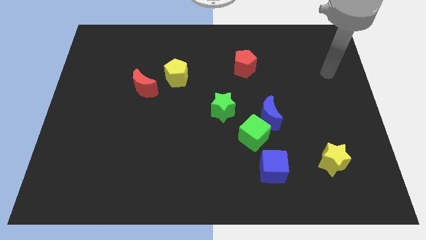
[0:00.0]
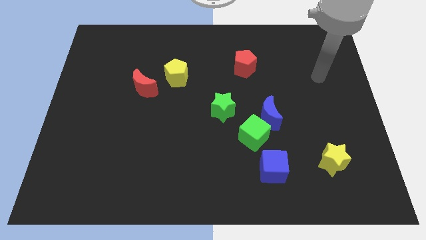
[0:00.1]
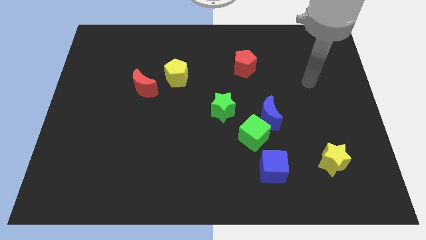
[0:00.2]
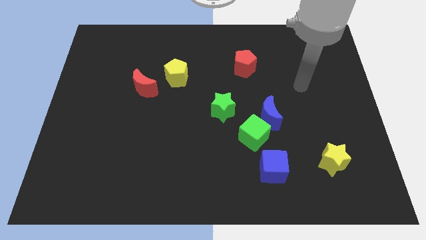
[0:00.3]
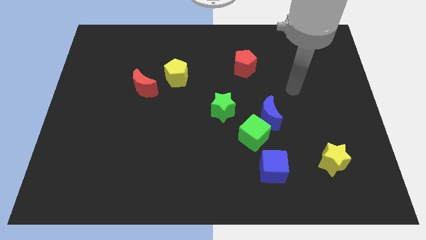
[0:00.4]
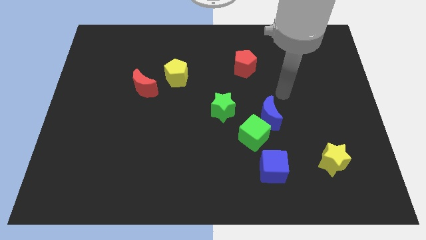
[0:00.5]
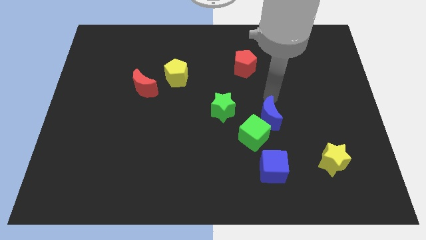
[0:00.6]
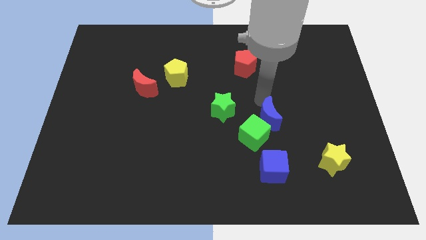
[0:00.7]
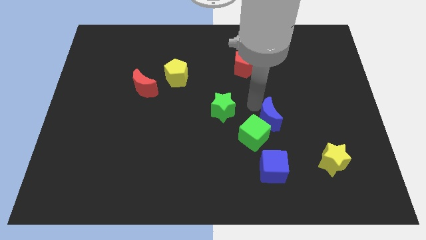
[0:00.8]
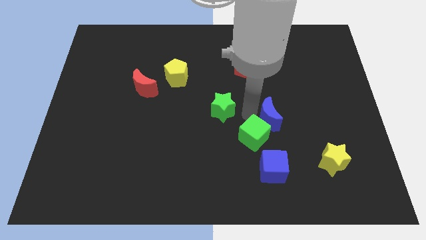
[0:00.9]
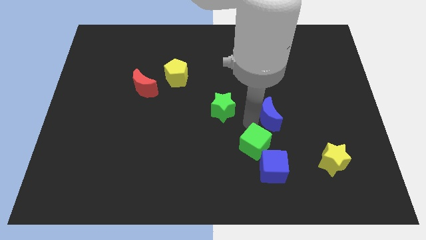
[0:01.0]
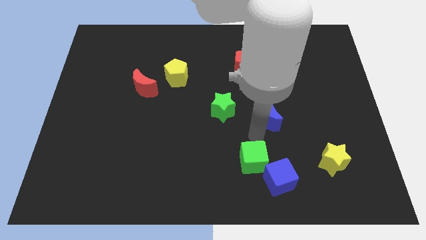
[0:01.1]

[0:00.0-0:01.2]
move the blue moon away from the green cube

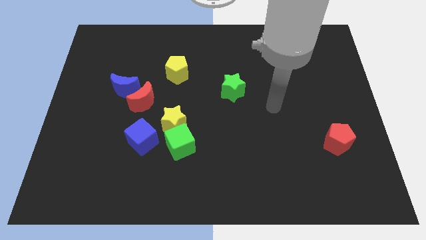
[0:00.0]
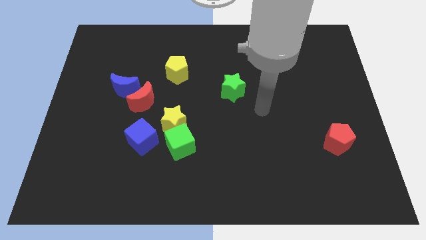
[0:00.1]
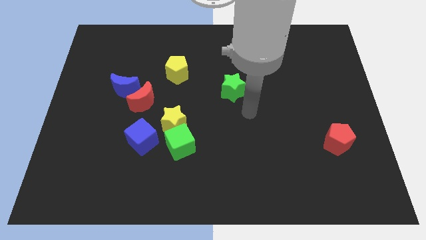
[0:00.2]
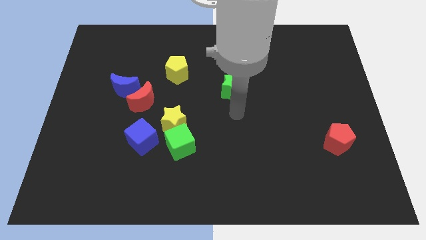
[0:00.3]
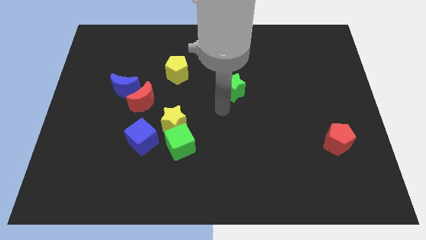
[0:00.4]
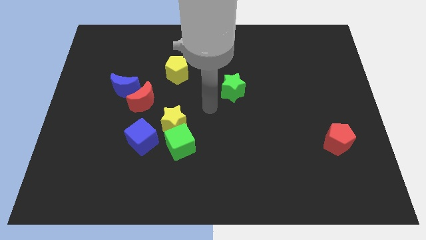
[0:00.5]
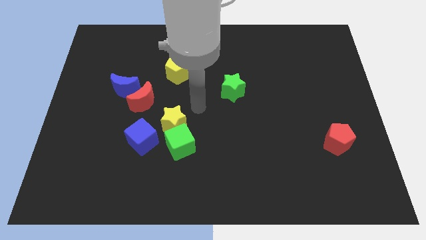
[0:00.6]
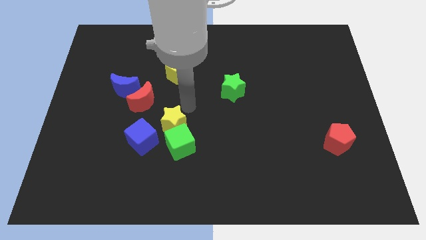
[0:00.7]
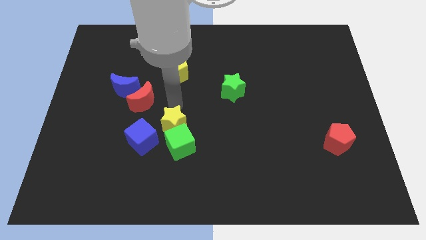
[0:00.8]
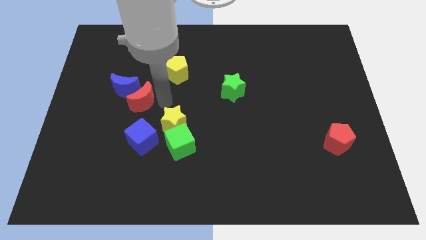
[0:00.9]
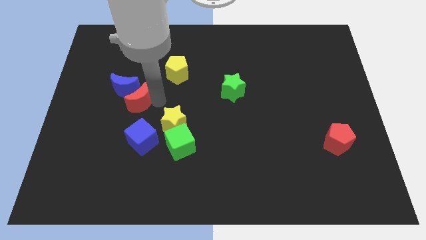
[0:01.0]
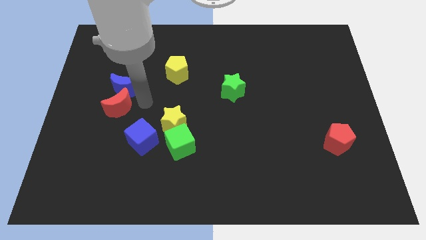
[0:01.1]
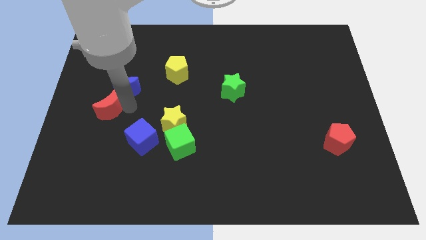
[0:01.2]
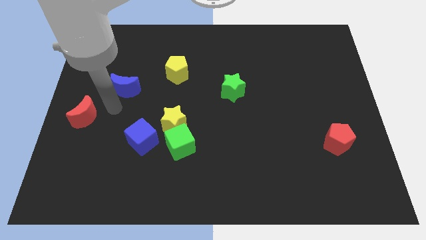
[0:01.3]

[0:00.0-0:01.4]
separate the blue moon from the red moon

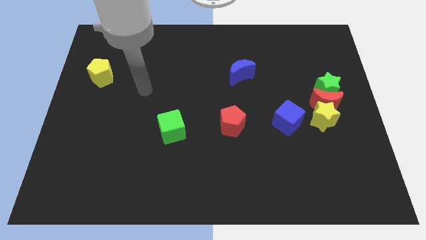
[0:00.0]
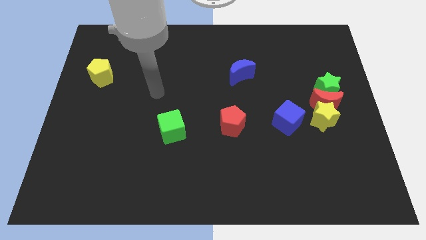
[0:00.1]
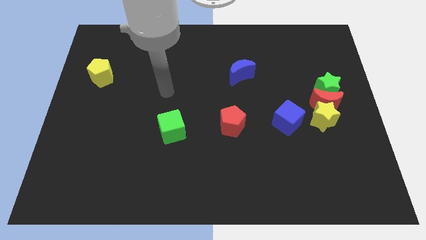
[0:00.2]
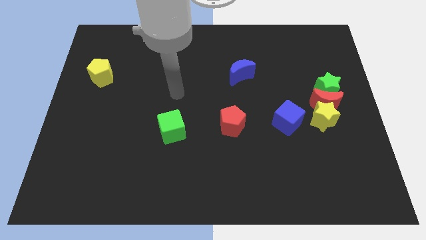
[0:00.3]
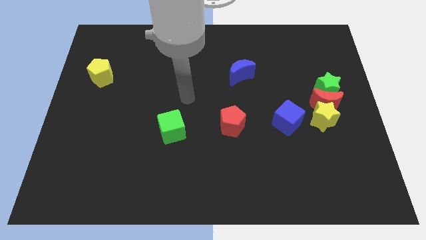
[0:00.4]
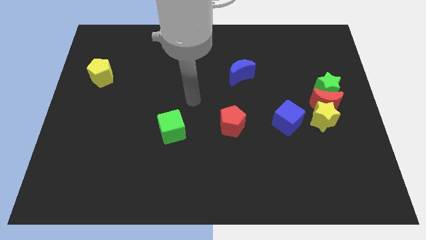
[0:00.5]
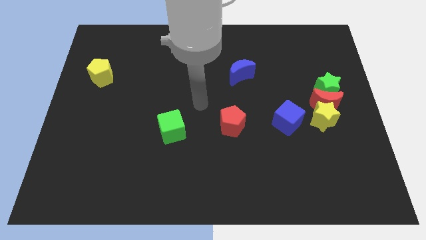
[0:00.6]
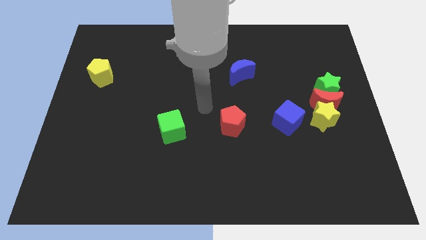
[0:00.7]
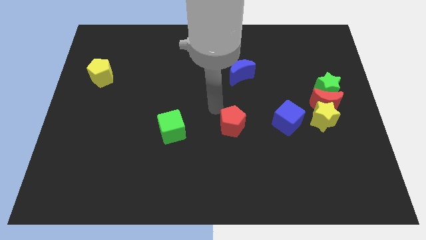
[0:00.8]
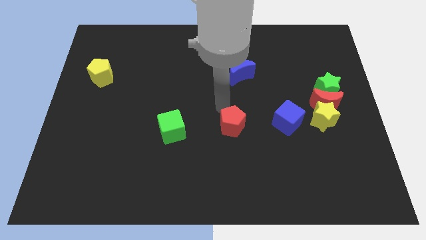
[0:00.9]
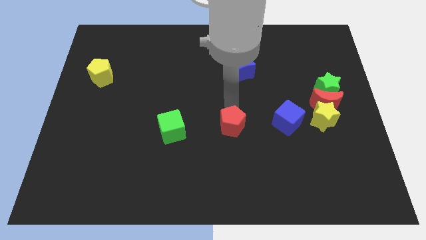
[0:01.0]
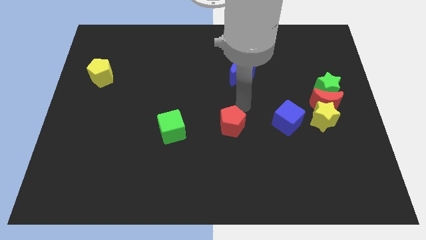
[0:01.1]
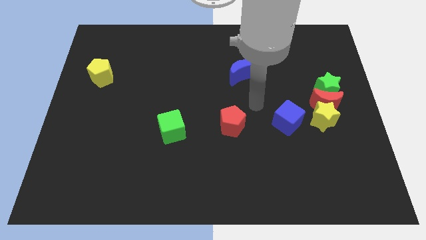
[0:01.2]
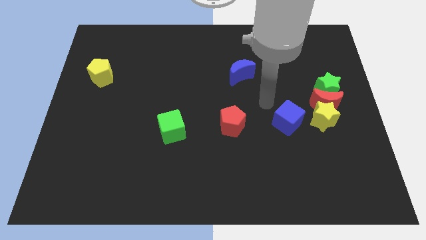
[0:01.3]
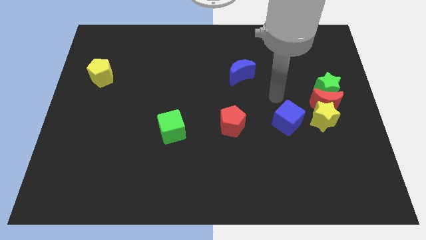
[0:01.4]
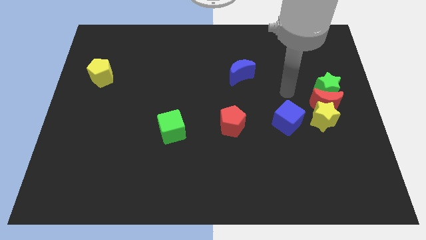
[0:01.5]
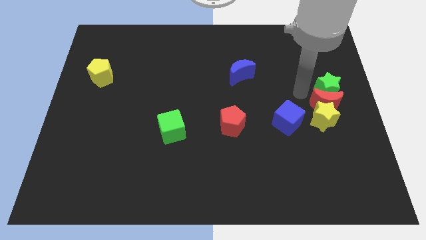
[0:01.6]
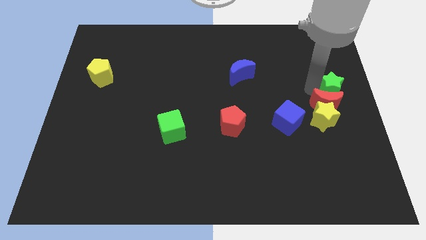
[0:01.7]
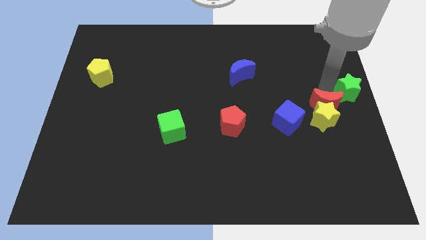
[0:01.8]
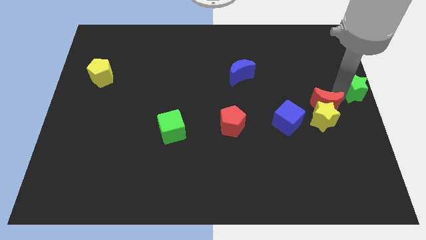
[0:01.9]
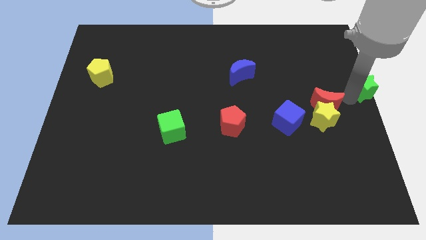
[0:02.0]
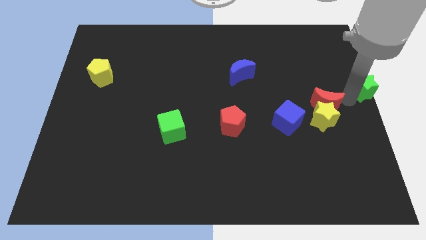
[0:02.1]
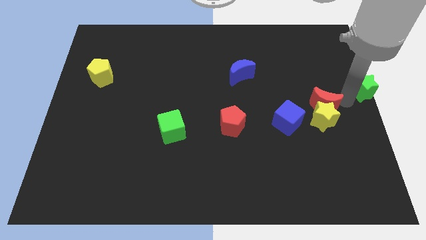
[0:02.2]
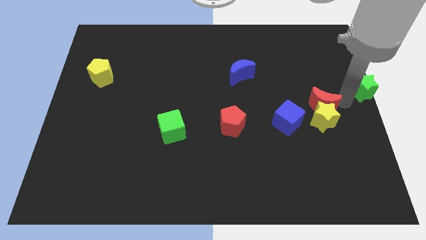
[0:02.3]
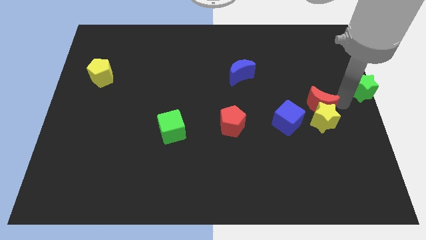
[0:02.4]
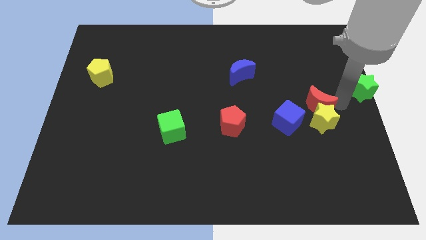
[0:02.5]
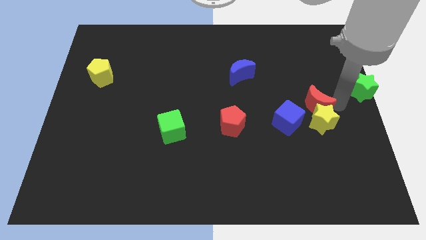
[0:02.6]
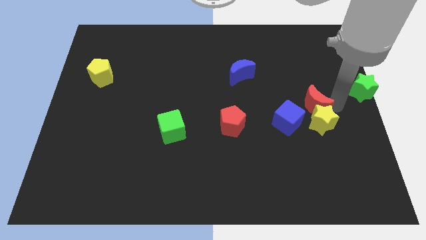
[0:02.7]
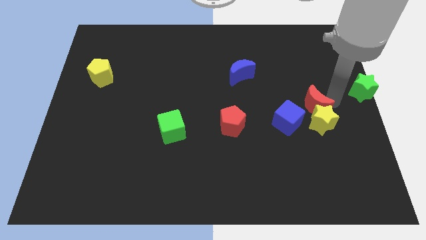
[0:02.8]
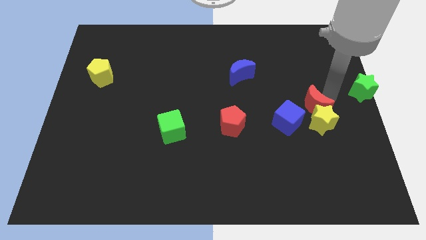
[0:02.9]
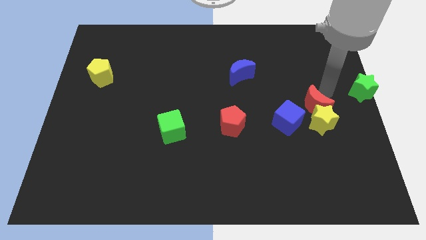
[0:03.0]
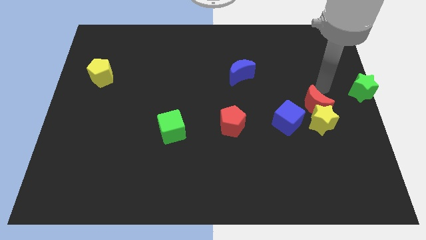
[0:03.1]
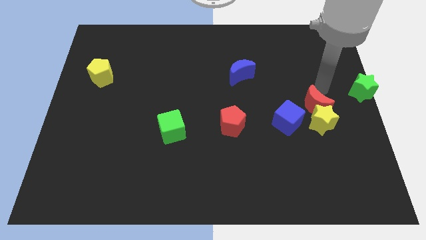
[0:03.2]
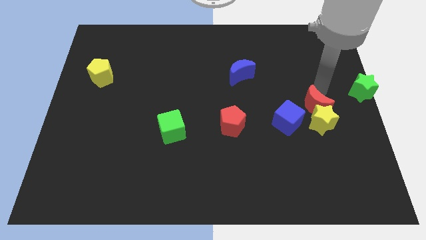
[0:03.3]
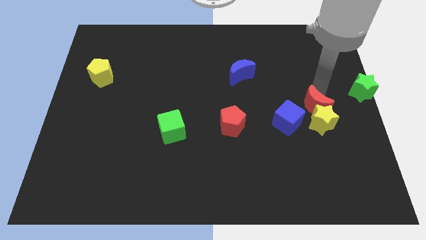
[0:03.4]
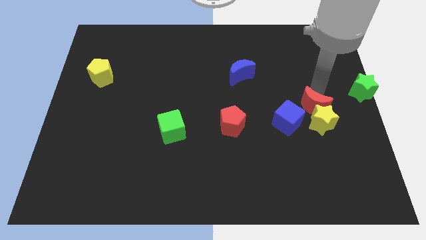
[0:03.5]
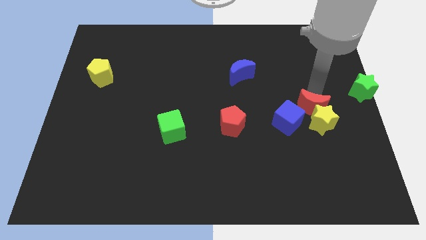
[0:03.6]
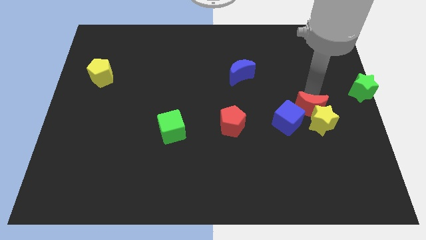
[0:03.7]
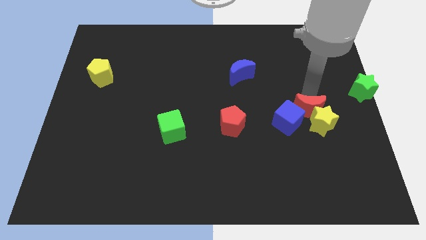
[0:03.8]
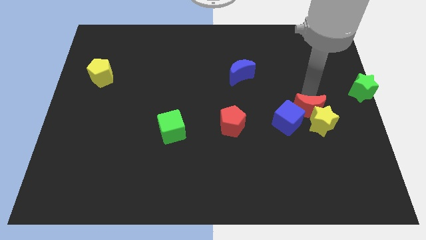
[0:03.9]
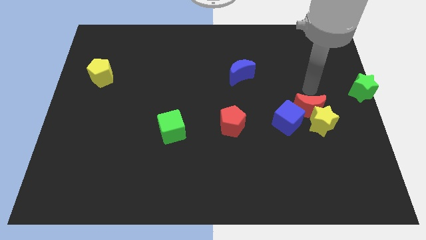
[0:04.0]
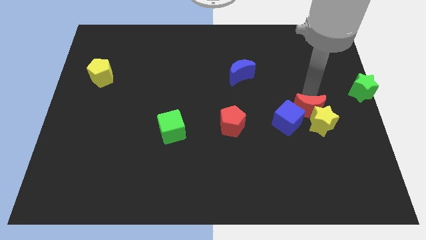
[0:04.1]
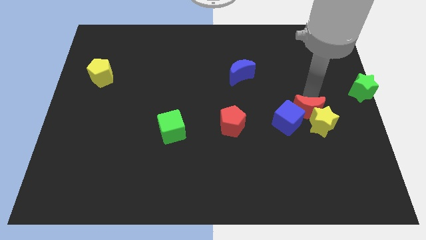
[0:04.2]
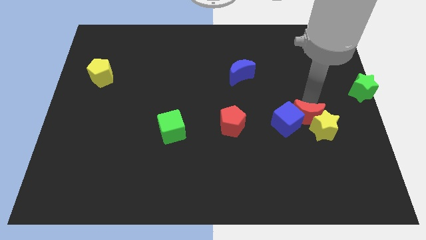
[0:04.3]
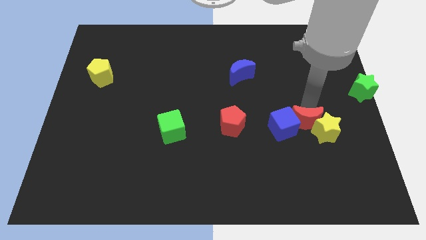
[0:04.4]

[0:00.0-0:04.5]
pull the red moon apart from the yellow star and green star

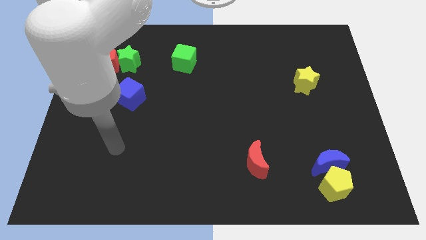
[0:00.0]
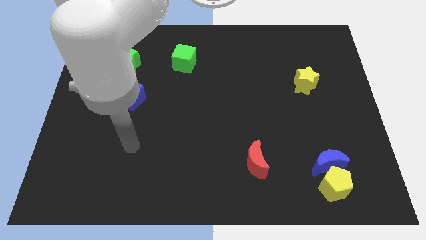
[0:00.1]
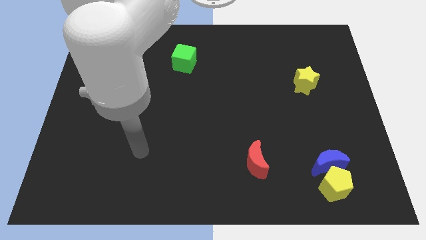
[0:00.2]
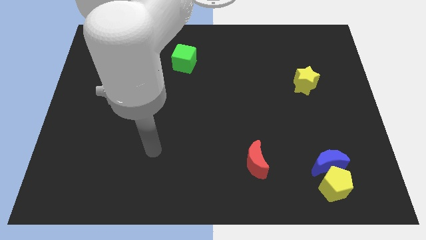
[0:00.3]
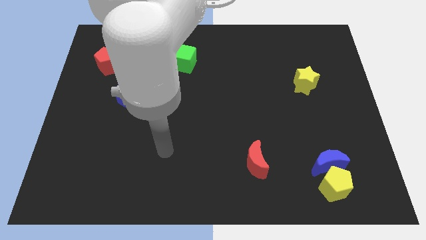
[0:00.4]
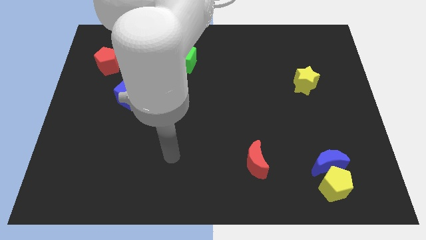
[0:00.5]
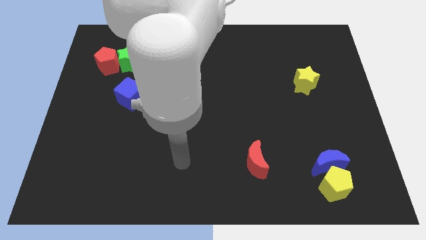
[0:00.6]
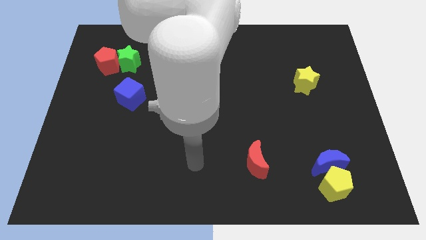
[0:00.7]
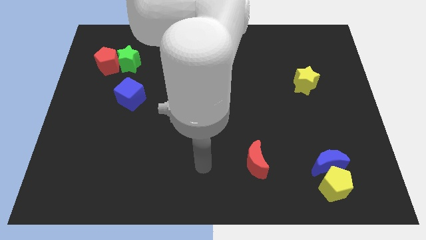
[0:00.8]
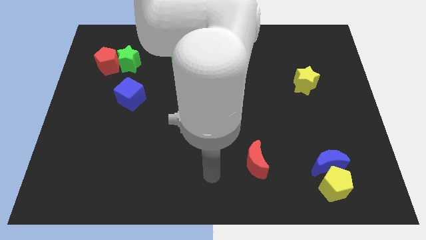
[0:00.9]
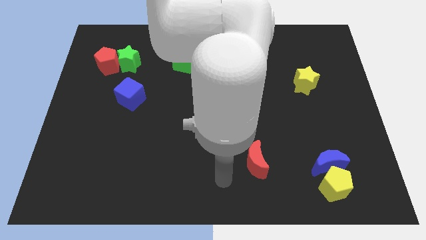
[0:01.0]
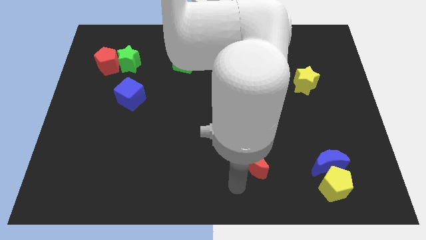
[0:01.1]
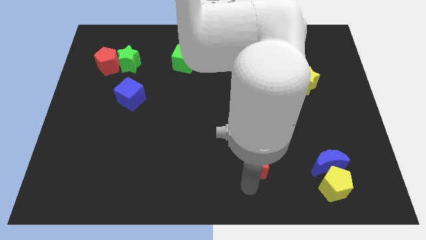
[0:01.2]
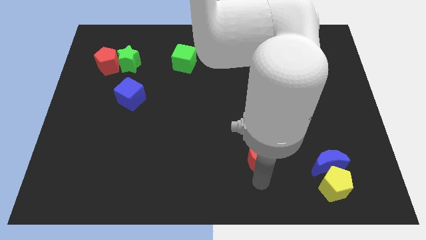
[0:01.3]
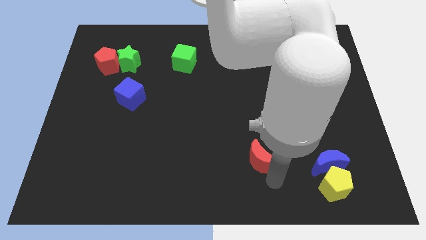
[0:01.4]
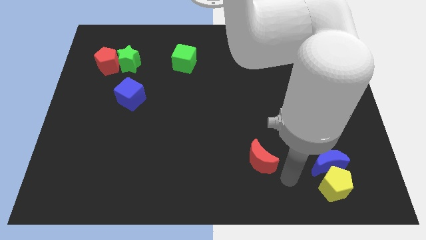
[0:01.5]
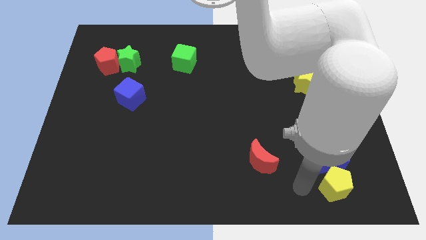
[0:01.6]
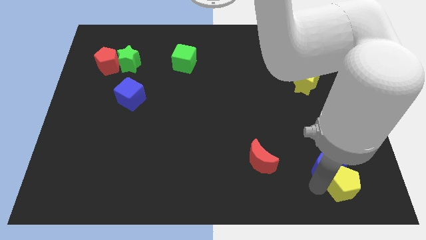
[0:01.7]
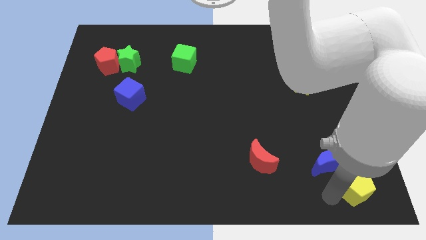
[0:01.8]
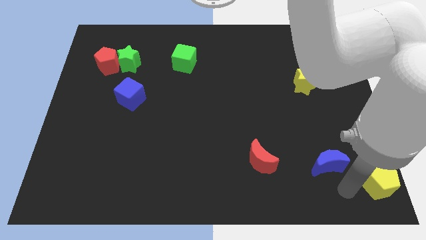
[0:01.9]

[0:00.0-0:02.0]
separate the blue moon from the yellow pentagon

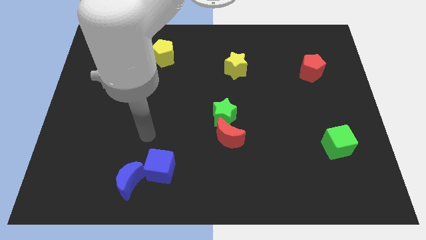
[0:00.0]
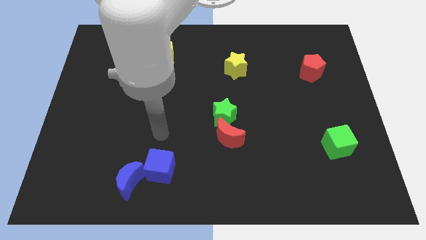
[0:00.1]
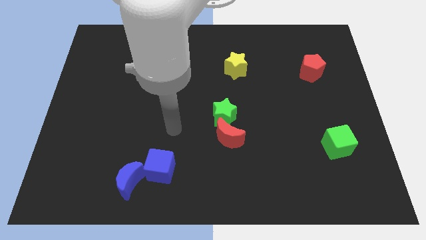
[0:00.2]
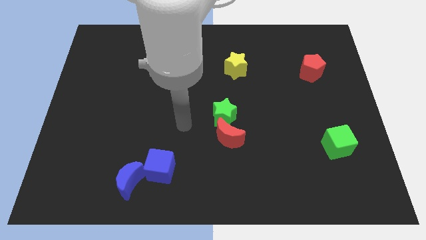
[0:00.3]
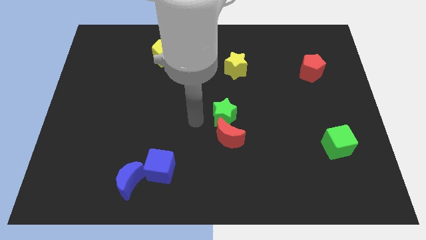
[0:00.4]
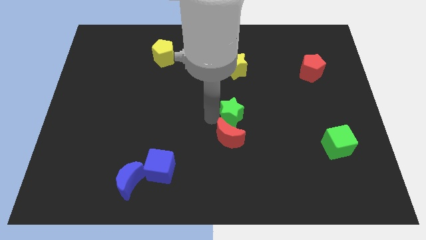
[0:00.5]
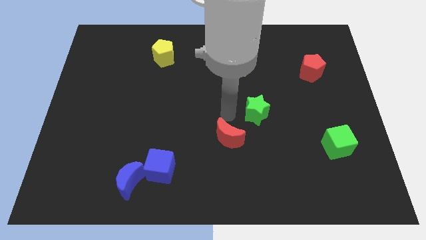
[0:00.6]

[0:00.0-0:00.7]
separate the red moon from the green star
